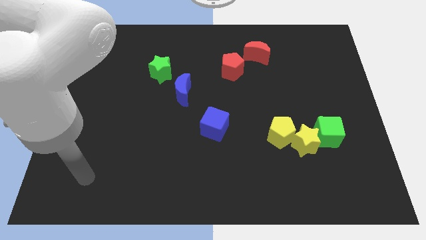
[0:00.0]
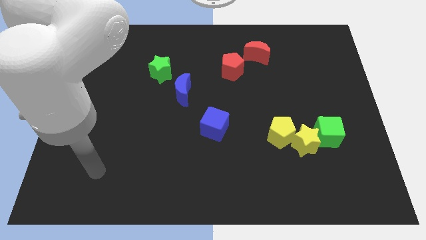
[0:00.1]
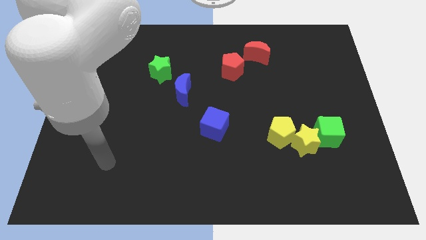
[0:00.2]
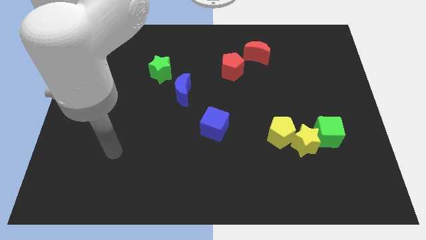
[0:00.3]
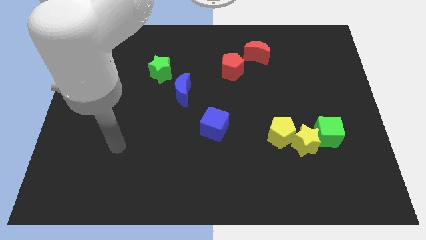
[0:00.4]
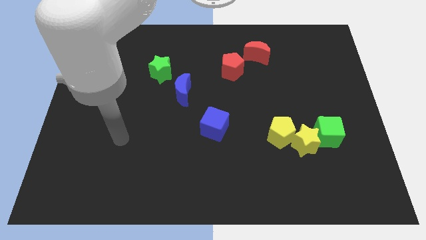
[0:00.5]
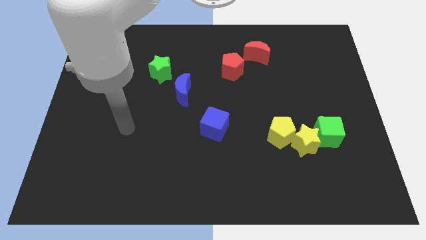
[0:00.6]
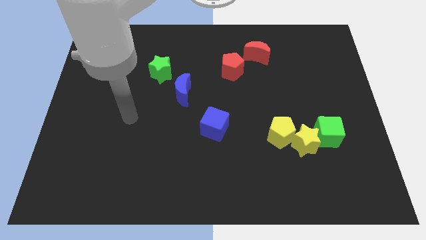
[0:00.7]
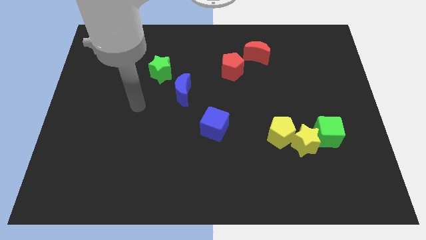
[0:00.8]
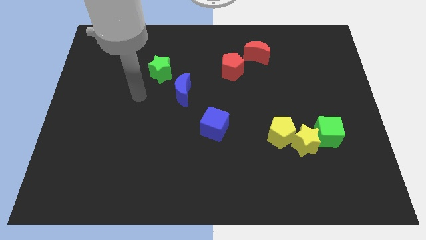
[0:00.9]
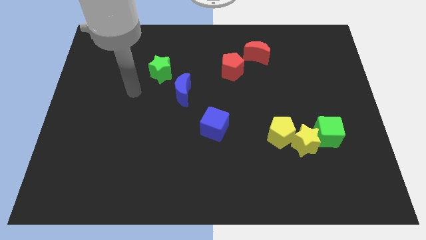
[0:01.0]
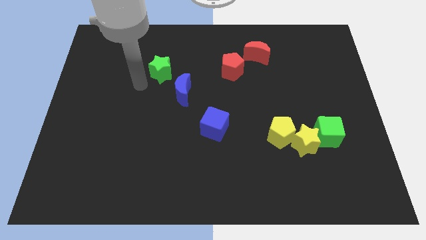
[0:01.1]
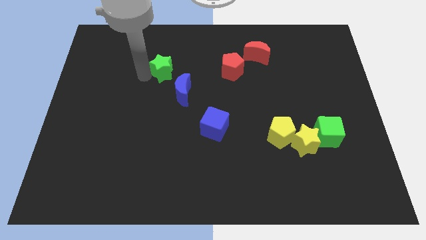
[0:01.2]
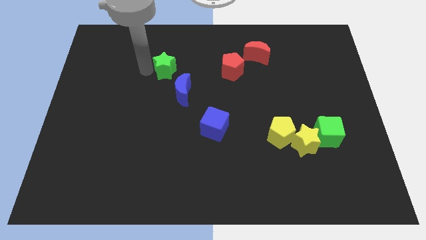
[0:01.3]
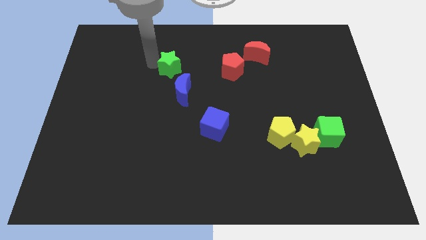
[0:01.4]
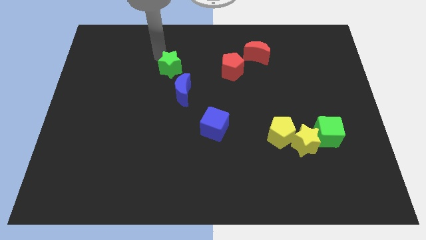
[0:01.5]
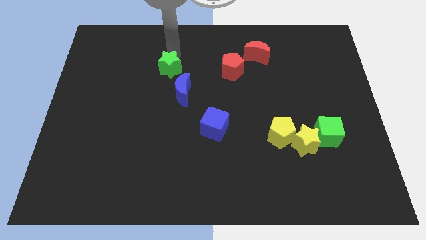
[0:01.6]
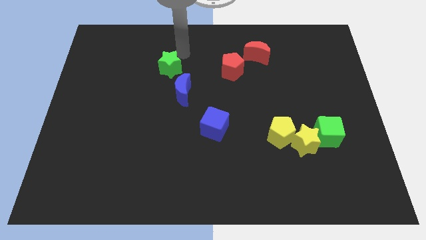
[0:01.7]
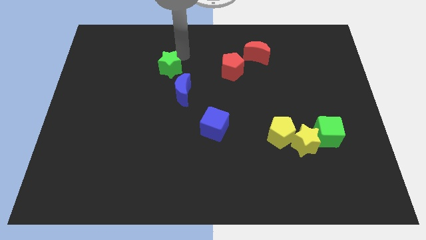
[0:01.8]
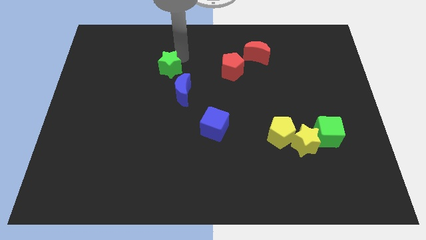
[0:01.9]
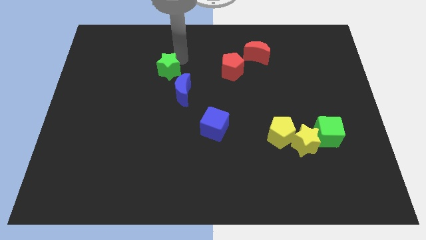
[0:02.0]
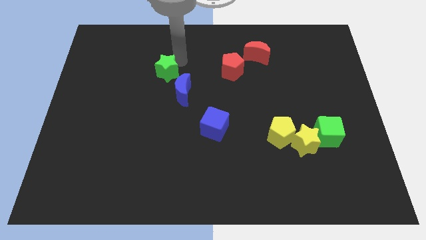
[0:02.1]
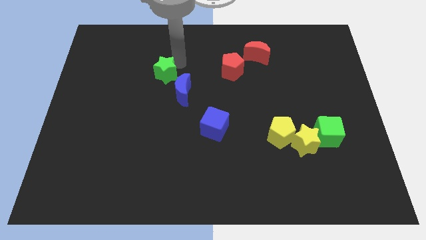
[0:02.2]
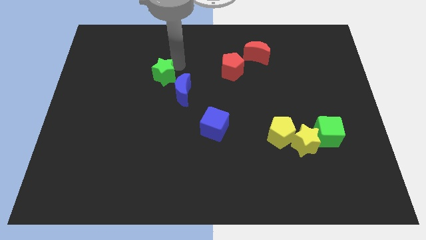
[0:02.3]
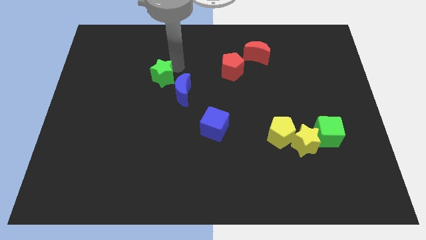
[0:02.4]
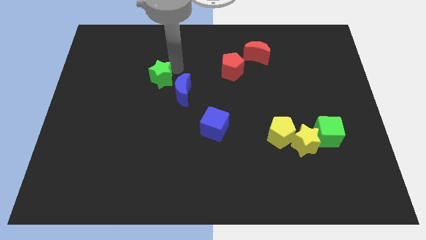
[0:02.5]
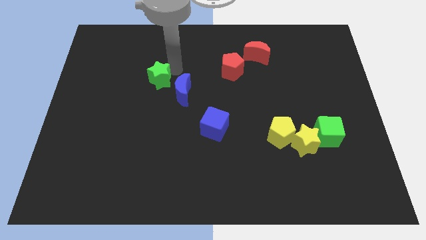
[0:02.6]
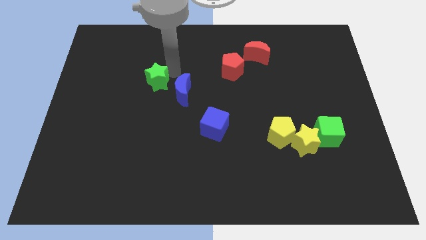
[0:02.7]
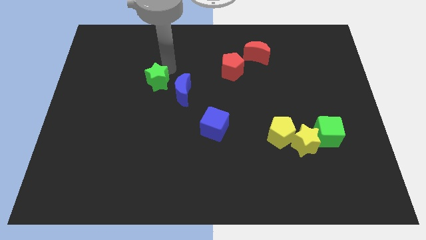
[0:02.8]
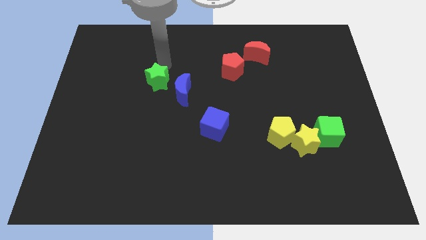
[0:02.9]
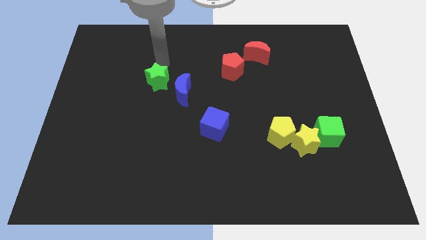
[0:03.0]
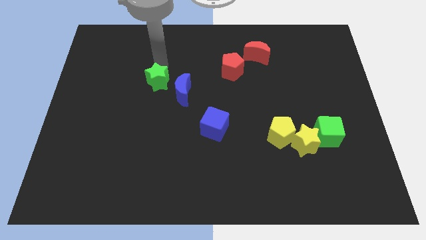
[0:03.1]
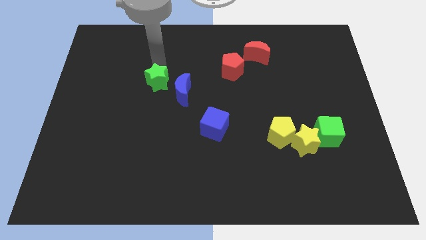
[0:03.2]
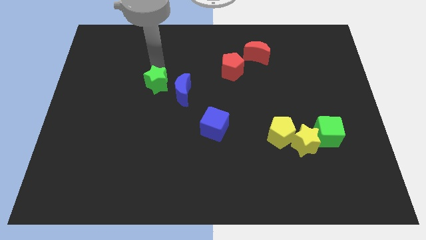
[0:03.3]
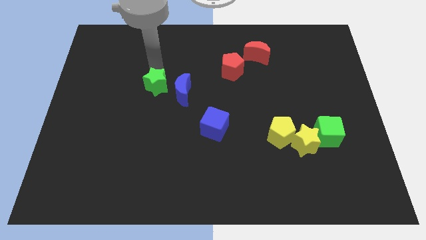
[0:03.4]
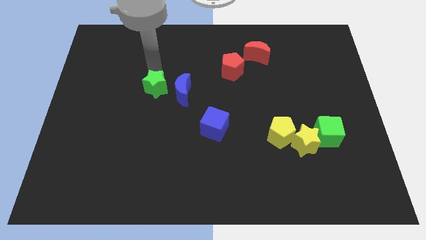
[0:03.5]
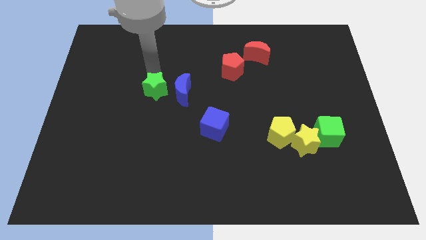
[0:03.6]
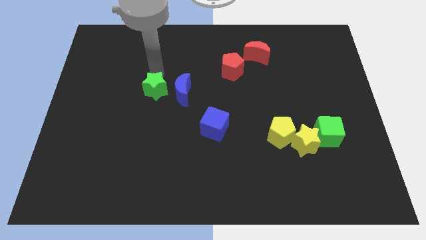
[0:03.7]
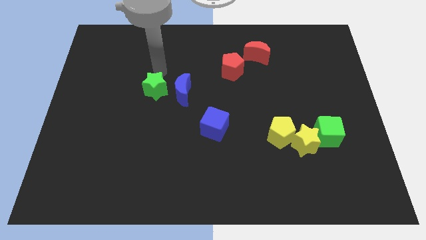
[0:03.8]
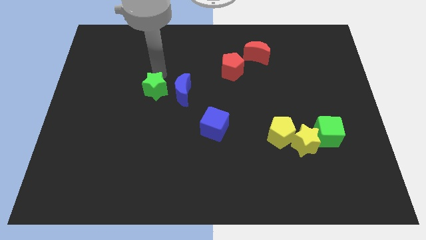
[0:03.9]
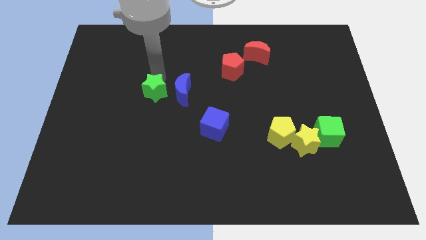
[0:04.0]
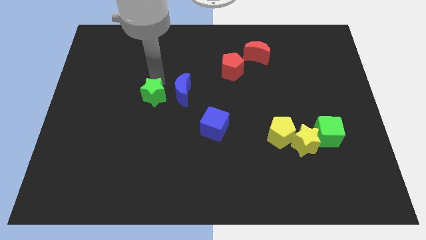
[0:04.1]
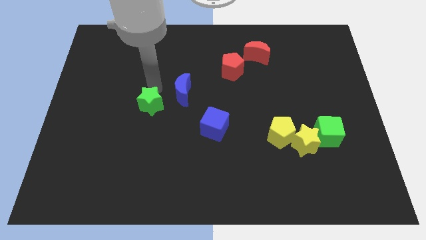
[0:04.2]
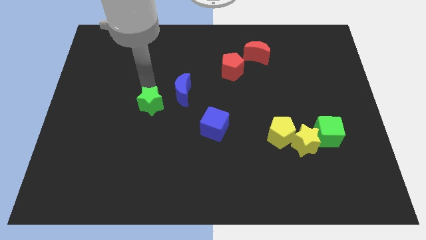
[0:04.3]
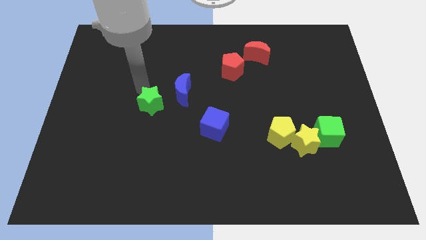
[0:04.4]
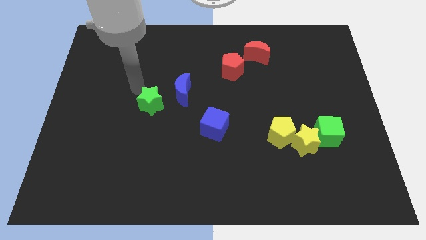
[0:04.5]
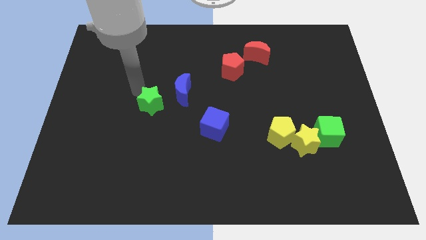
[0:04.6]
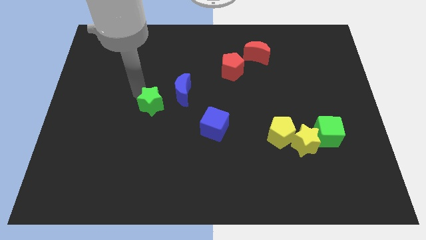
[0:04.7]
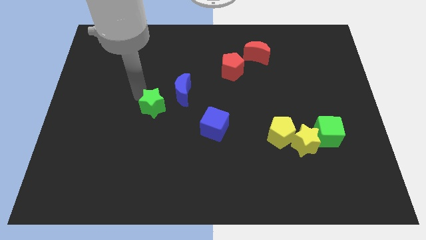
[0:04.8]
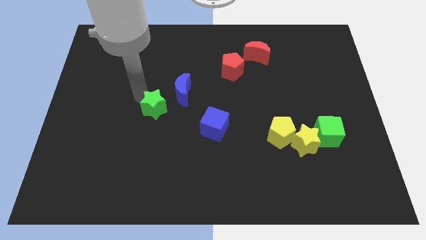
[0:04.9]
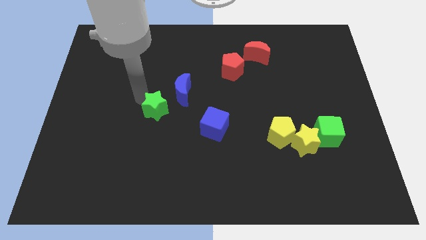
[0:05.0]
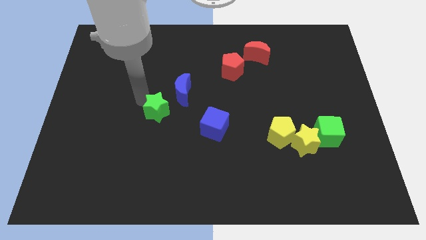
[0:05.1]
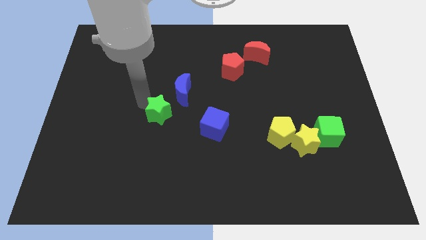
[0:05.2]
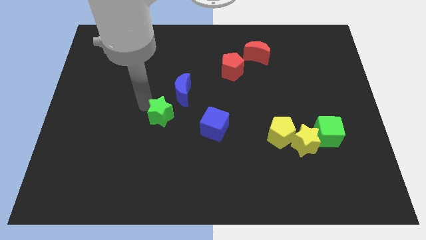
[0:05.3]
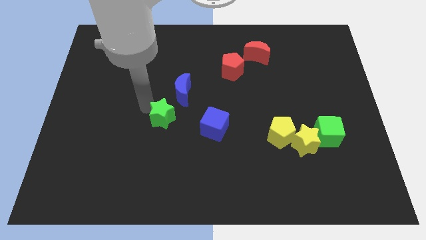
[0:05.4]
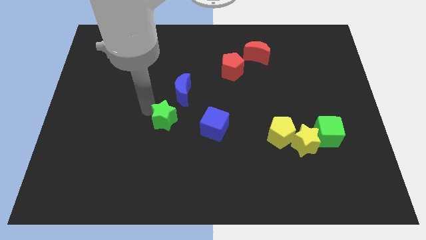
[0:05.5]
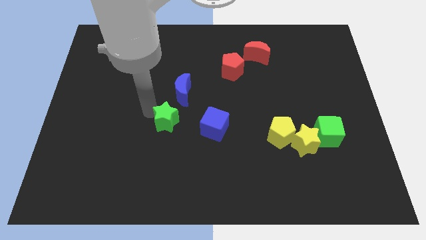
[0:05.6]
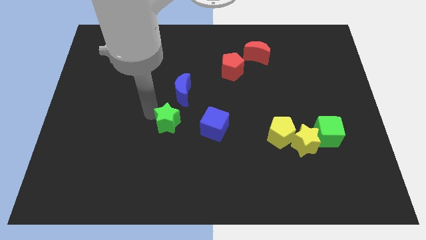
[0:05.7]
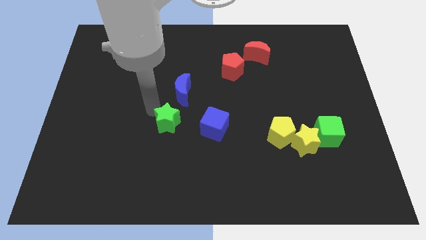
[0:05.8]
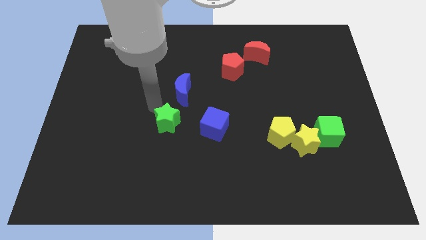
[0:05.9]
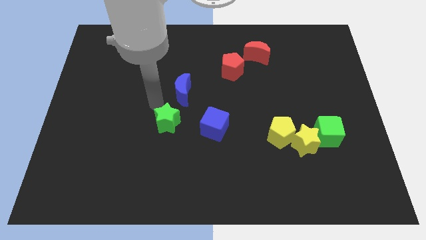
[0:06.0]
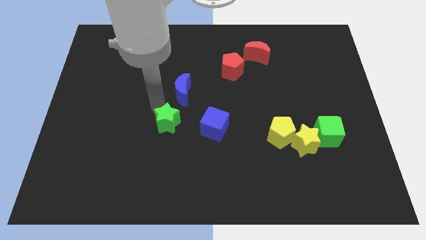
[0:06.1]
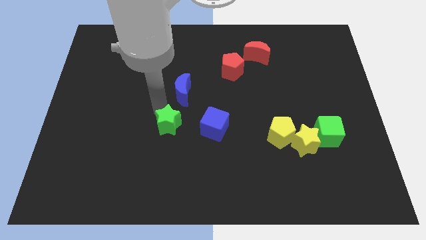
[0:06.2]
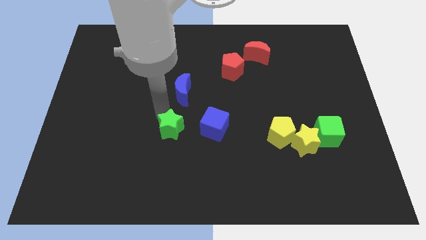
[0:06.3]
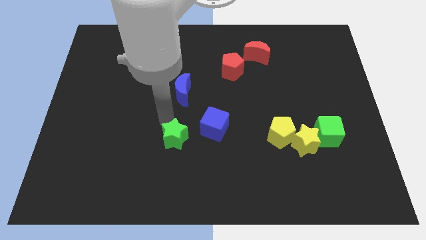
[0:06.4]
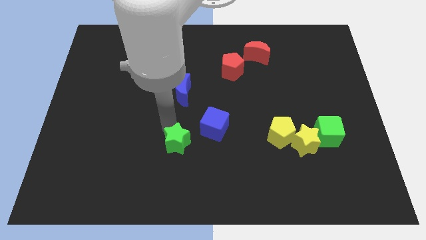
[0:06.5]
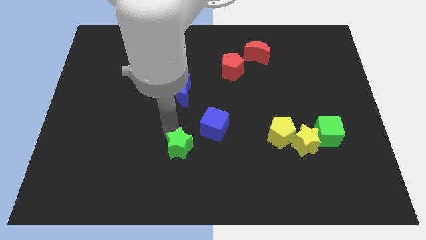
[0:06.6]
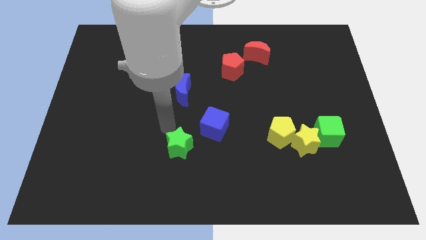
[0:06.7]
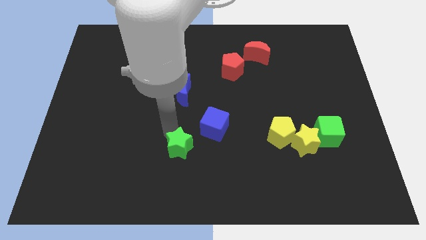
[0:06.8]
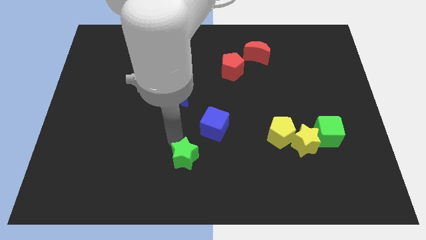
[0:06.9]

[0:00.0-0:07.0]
push the green star to the bottom side
